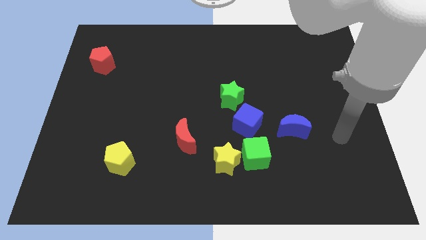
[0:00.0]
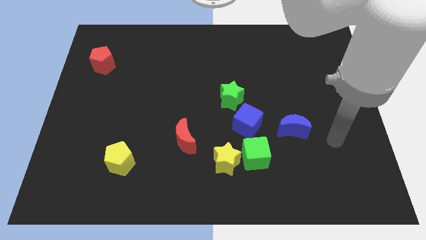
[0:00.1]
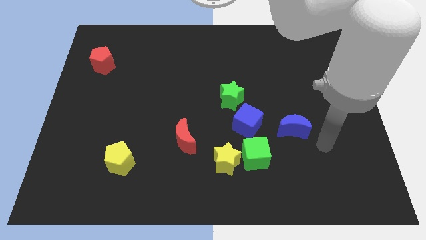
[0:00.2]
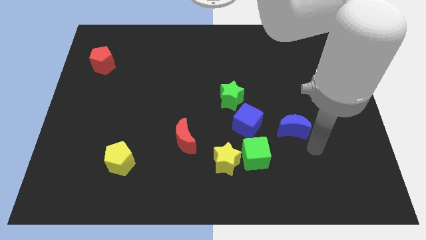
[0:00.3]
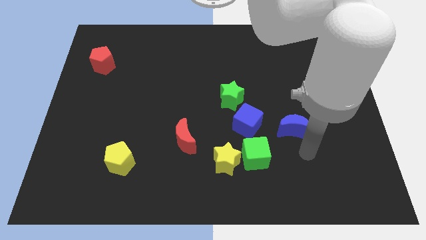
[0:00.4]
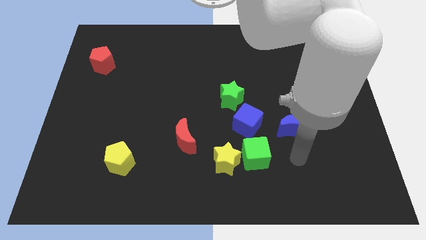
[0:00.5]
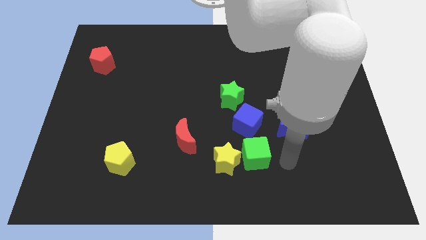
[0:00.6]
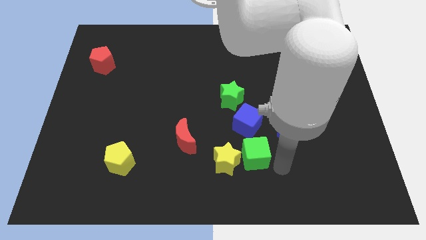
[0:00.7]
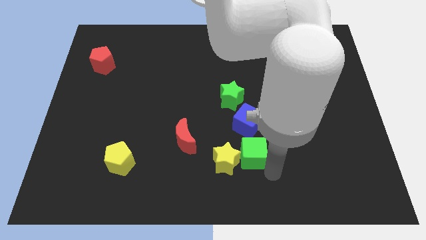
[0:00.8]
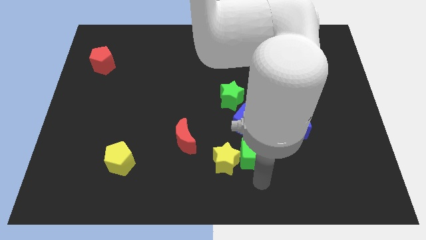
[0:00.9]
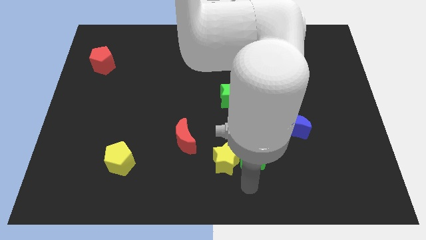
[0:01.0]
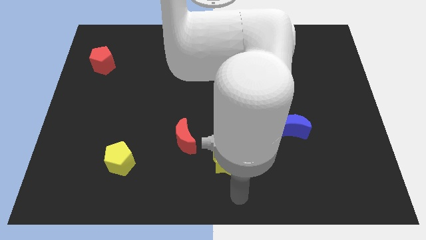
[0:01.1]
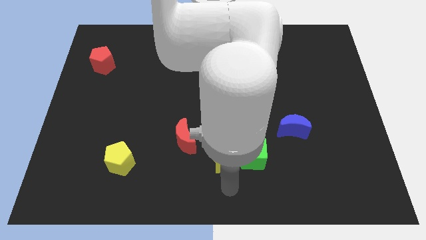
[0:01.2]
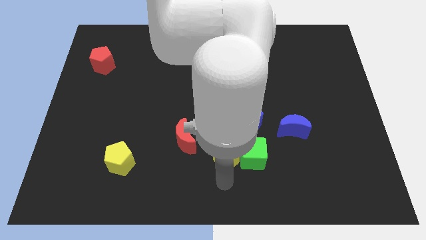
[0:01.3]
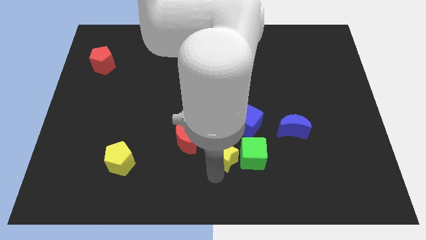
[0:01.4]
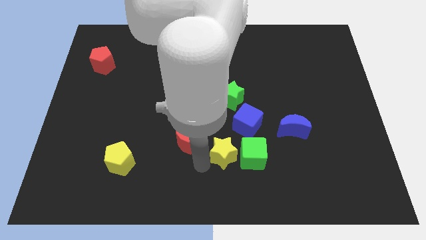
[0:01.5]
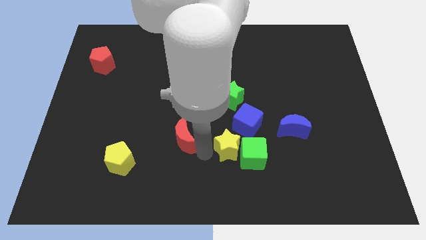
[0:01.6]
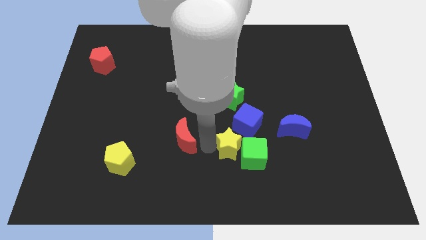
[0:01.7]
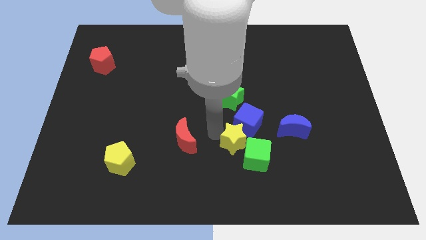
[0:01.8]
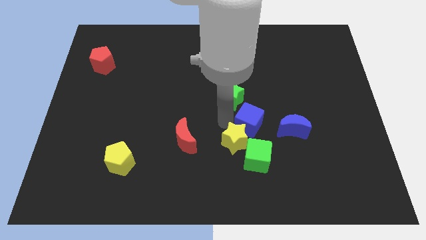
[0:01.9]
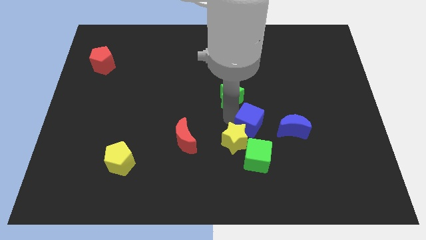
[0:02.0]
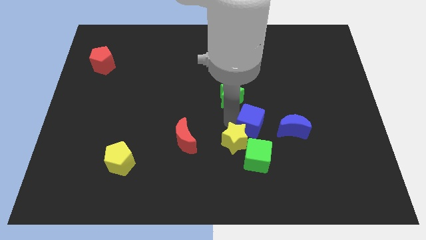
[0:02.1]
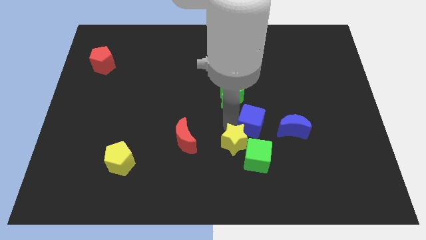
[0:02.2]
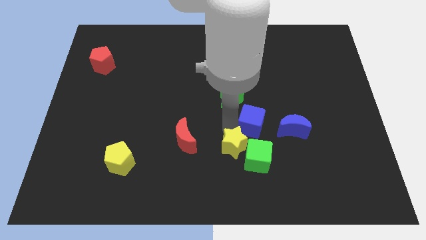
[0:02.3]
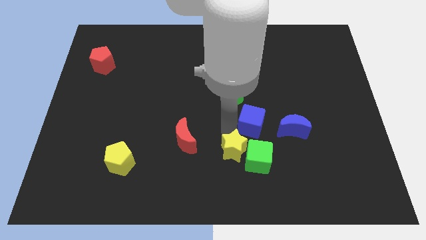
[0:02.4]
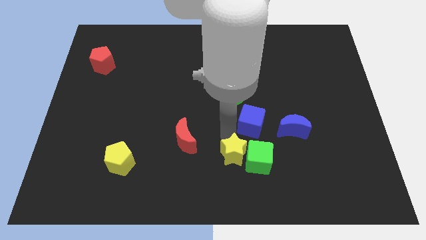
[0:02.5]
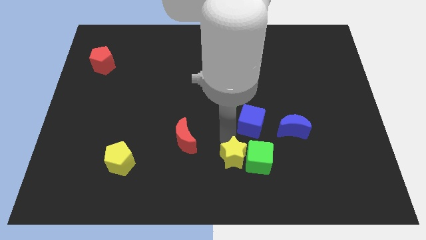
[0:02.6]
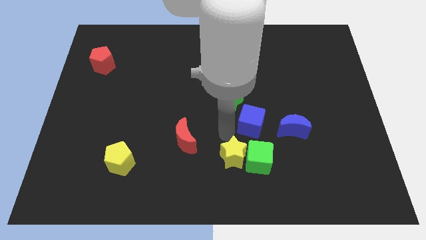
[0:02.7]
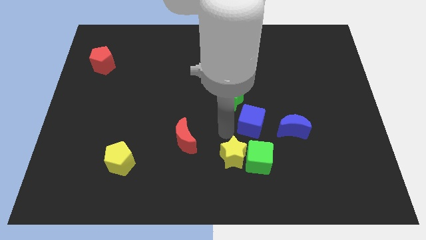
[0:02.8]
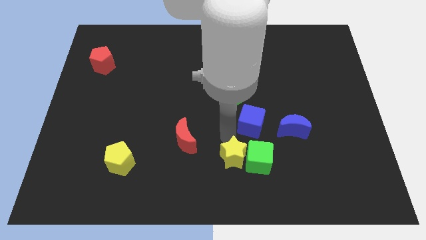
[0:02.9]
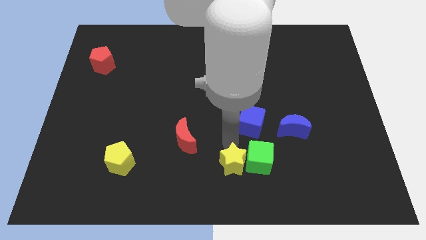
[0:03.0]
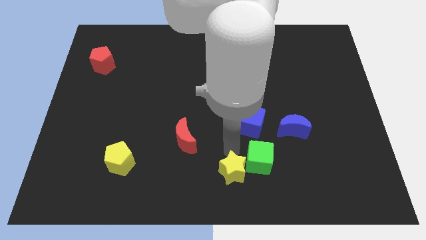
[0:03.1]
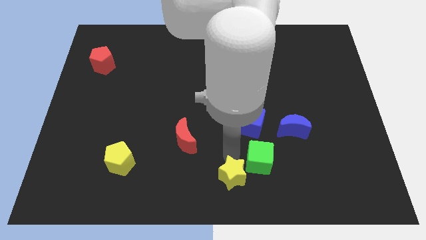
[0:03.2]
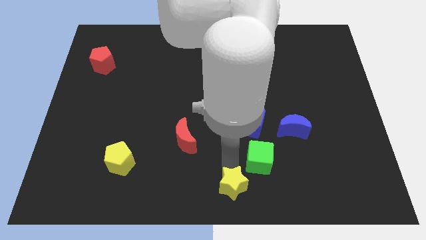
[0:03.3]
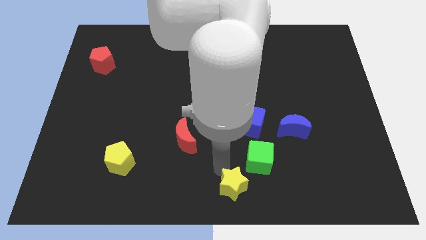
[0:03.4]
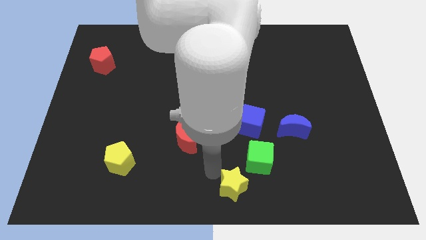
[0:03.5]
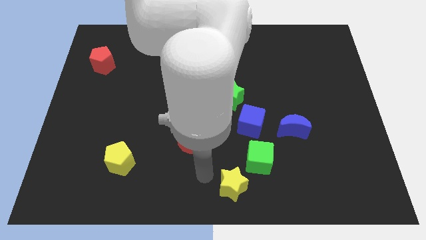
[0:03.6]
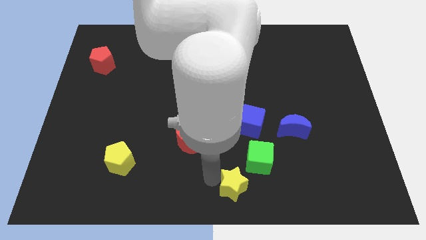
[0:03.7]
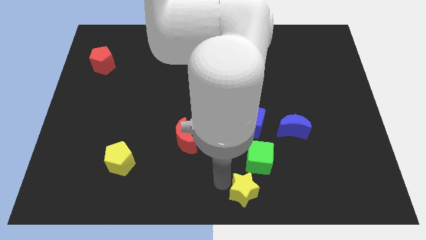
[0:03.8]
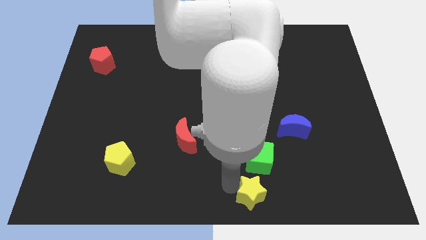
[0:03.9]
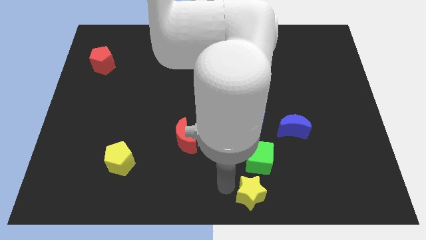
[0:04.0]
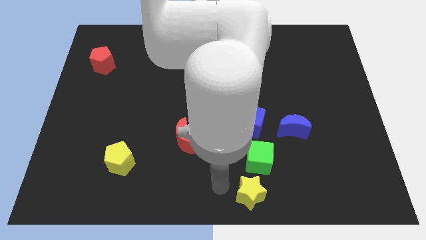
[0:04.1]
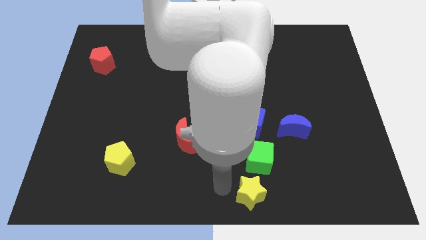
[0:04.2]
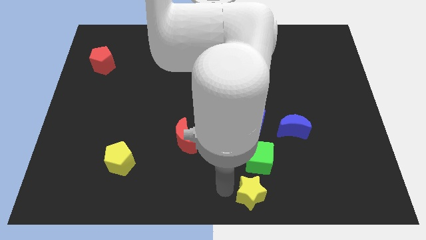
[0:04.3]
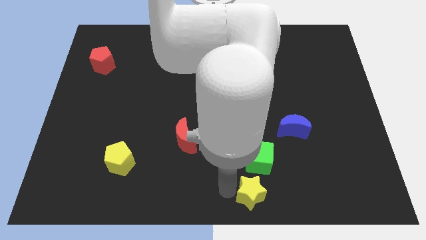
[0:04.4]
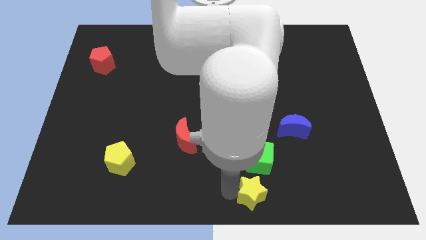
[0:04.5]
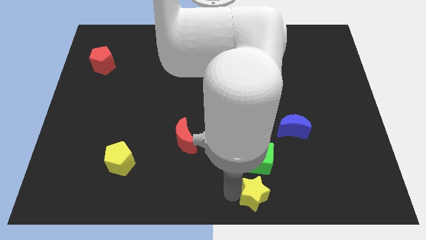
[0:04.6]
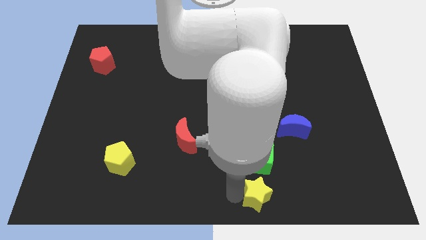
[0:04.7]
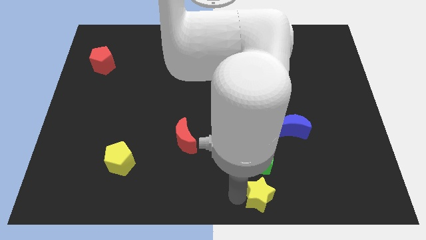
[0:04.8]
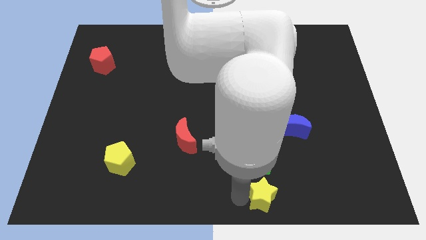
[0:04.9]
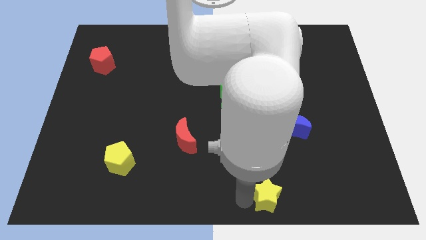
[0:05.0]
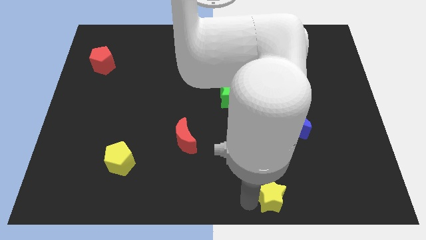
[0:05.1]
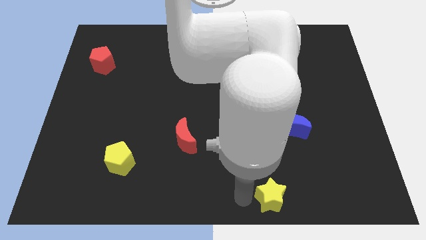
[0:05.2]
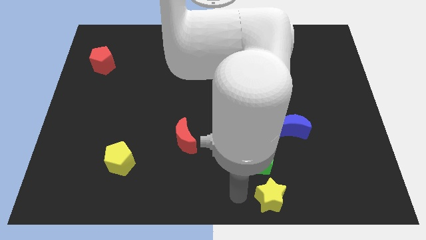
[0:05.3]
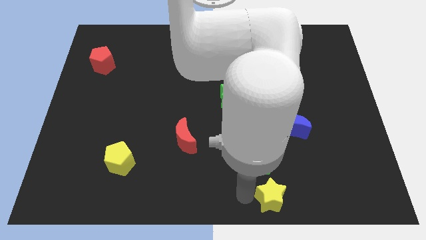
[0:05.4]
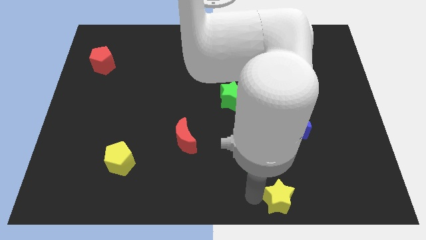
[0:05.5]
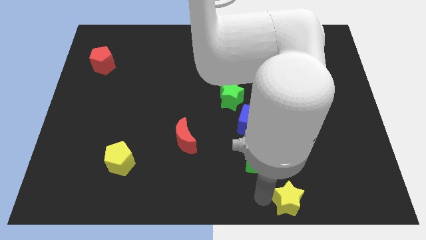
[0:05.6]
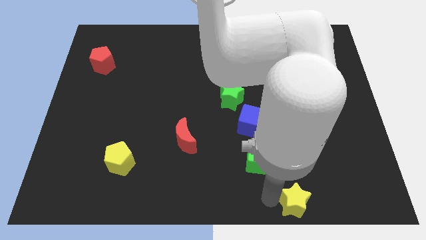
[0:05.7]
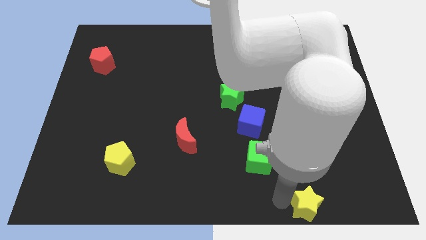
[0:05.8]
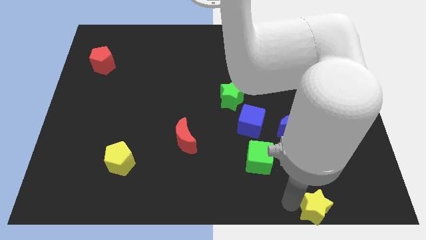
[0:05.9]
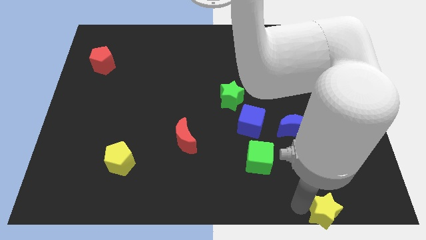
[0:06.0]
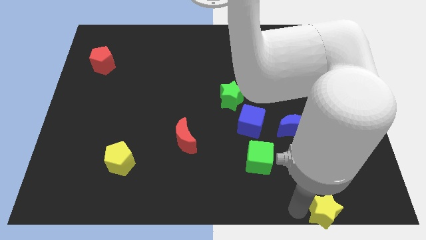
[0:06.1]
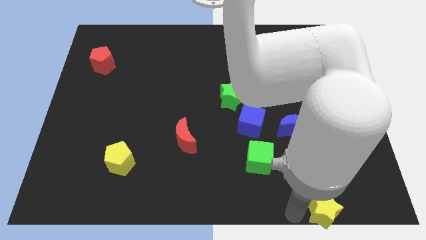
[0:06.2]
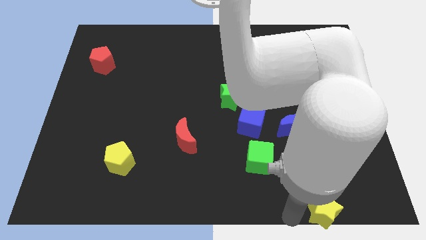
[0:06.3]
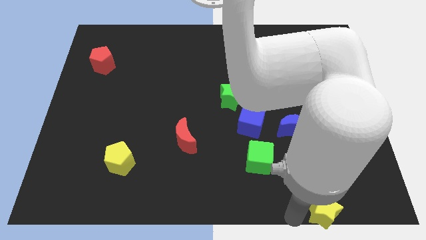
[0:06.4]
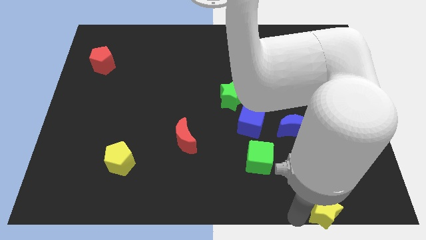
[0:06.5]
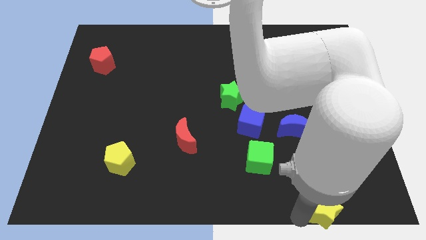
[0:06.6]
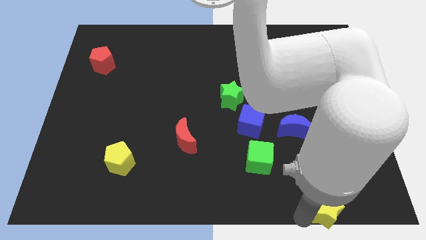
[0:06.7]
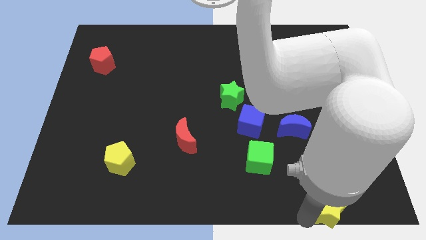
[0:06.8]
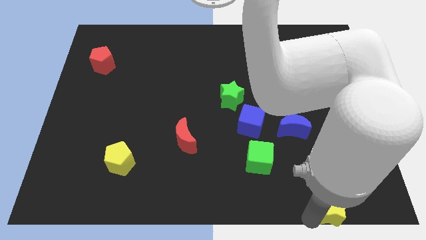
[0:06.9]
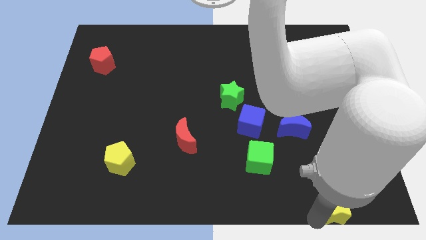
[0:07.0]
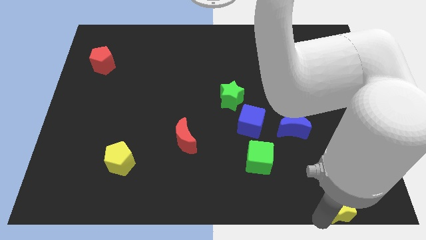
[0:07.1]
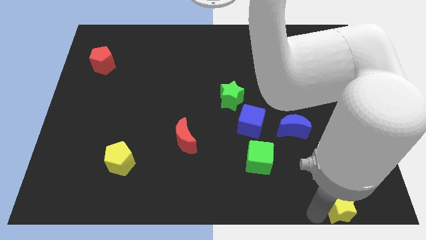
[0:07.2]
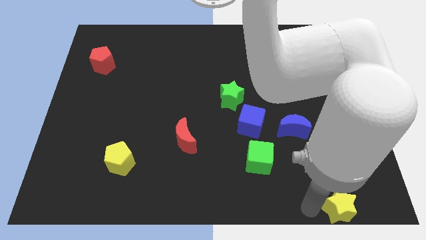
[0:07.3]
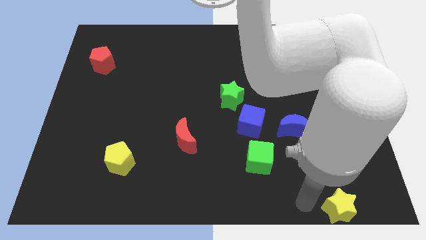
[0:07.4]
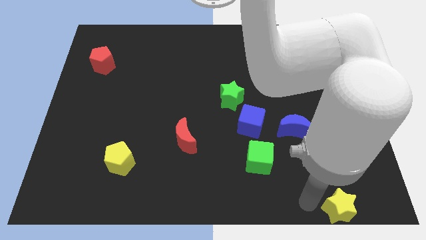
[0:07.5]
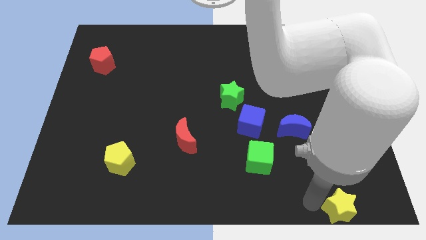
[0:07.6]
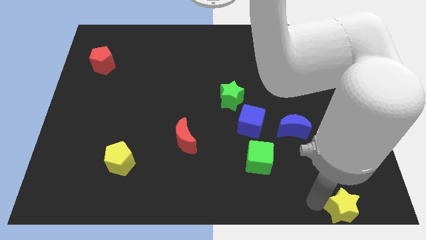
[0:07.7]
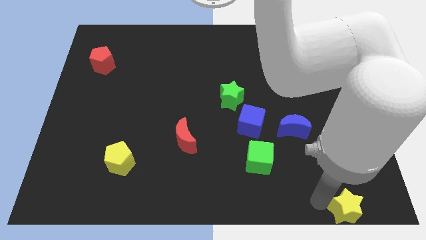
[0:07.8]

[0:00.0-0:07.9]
put the yellow star to the bottom right corner
